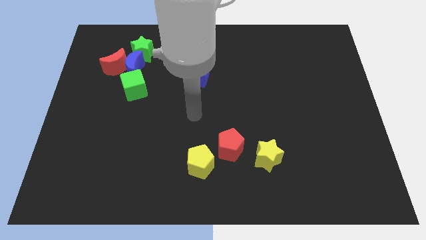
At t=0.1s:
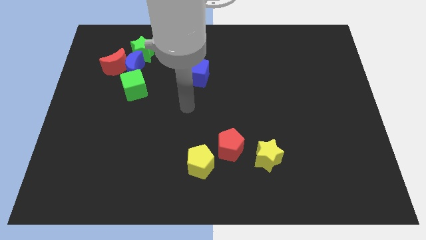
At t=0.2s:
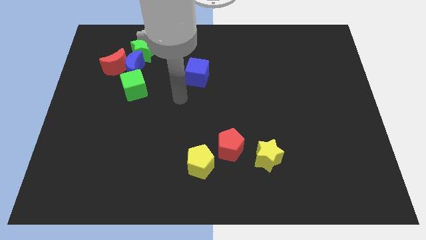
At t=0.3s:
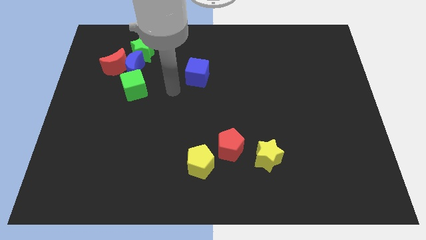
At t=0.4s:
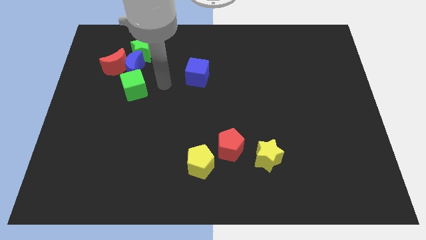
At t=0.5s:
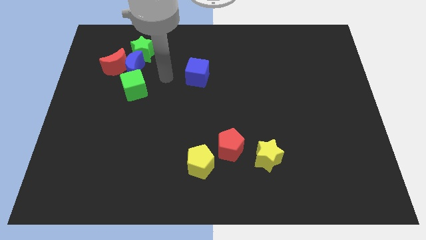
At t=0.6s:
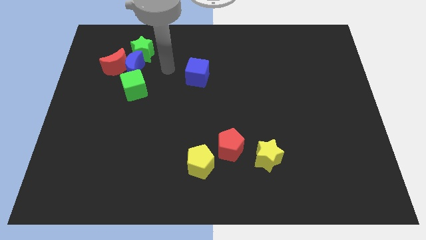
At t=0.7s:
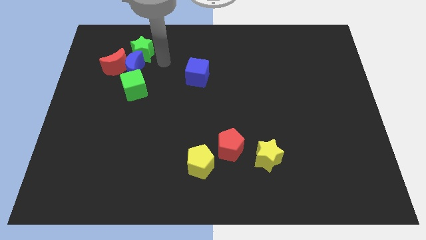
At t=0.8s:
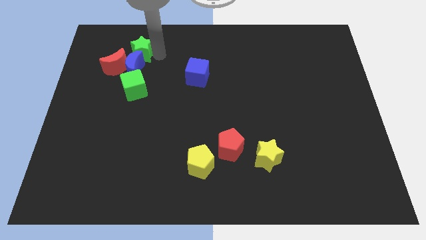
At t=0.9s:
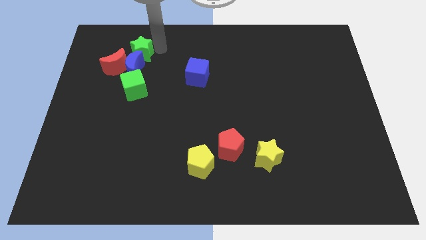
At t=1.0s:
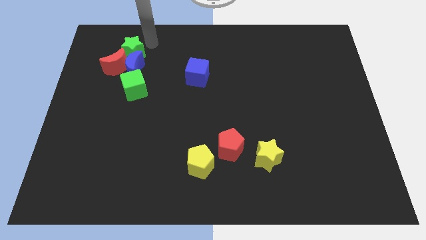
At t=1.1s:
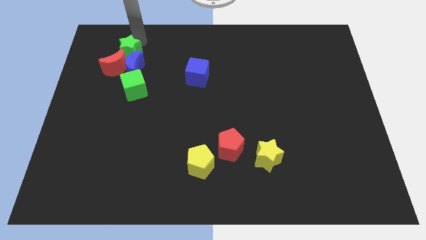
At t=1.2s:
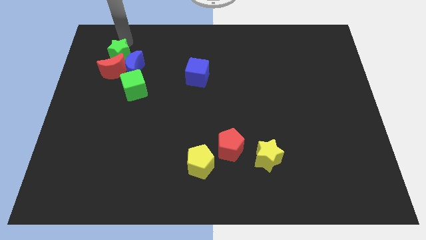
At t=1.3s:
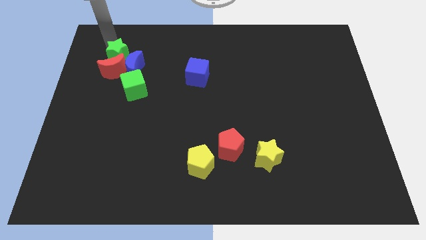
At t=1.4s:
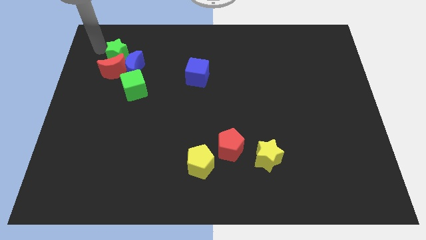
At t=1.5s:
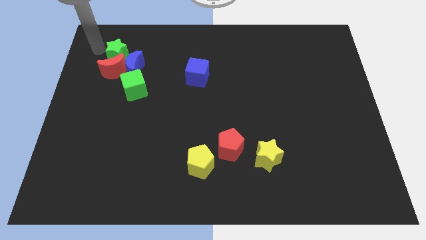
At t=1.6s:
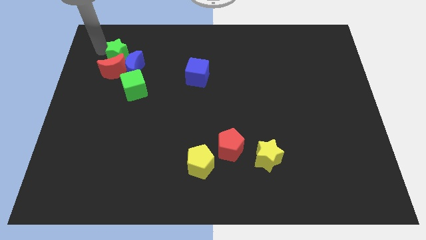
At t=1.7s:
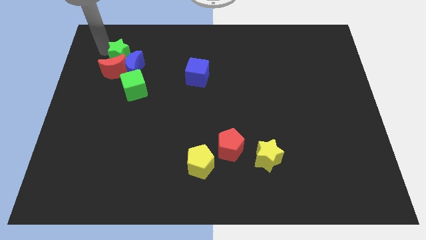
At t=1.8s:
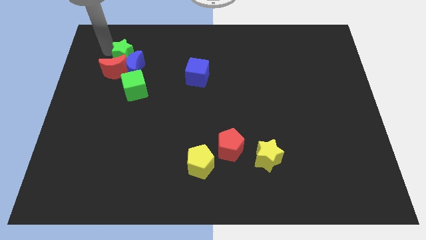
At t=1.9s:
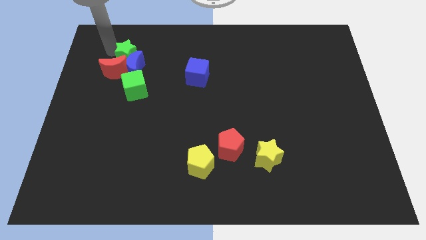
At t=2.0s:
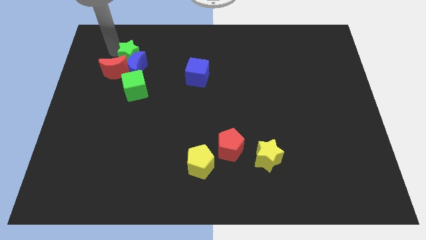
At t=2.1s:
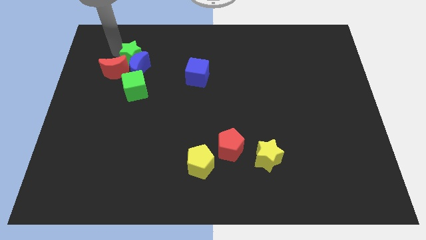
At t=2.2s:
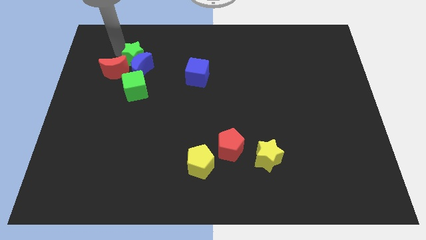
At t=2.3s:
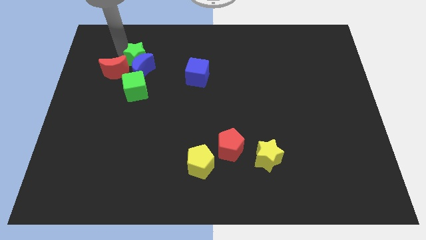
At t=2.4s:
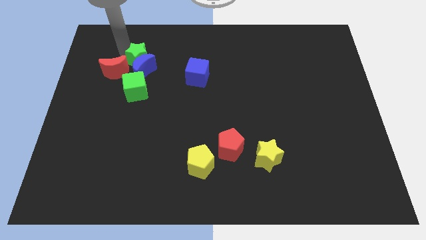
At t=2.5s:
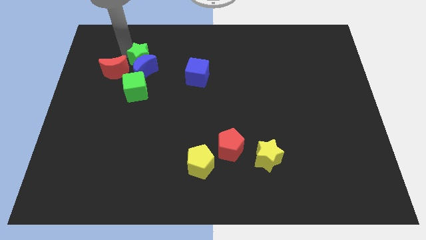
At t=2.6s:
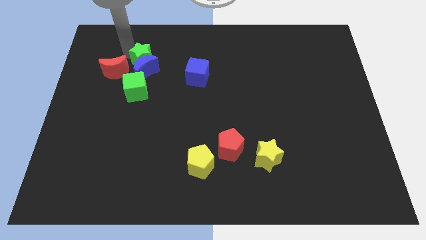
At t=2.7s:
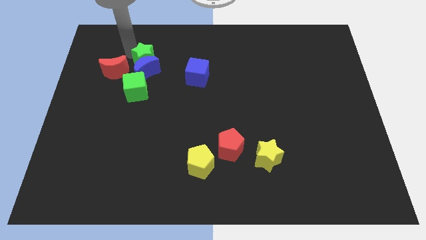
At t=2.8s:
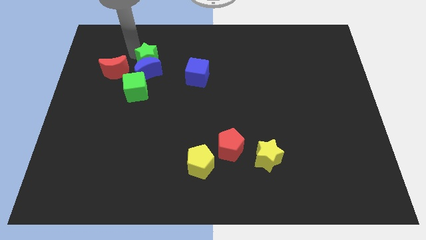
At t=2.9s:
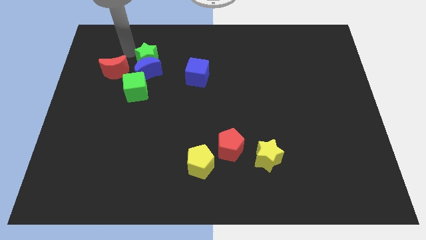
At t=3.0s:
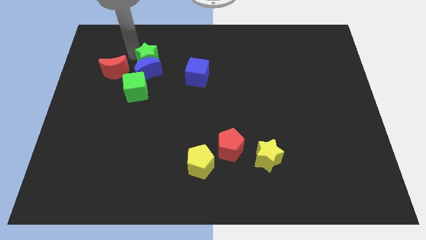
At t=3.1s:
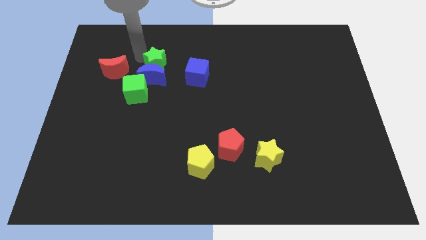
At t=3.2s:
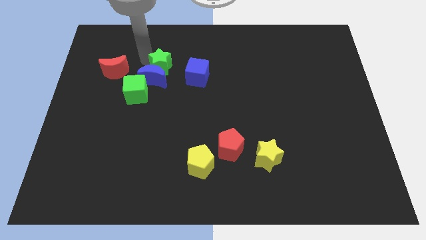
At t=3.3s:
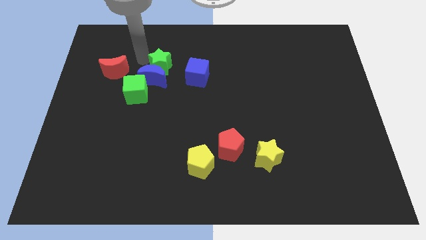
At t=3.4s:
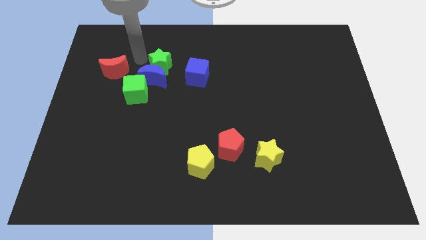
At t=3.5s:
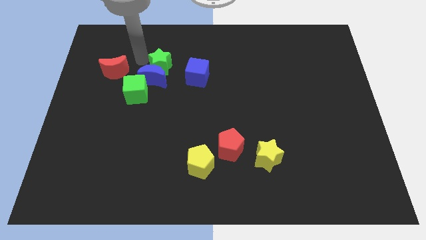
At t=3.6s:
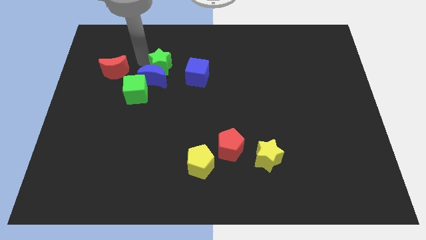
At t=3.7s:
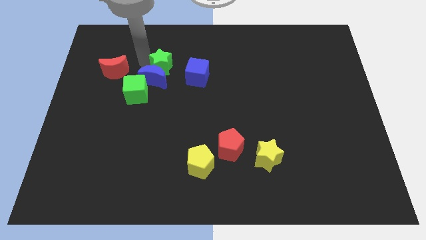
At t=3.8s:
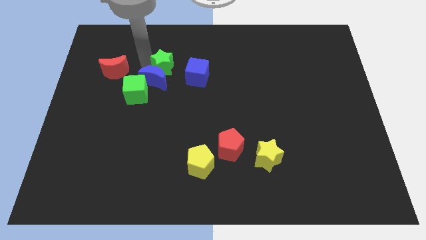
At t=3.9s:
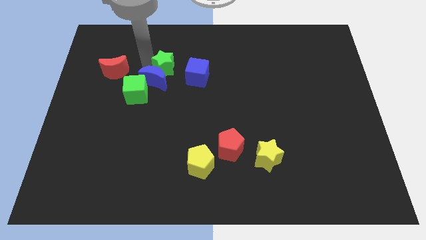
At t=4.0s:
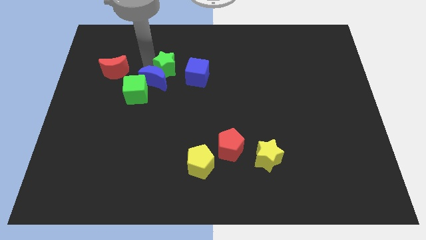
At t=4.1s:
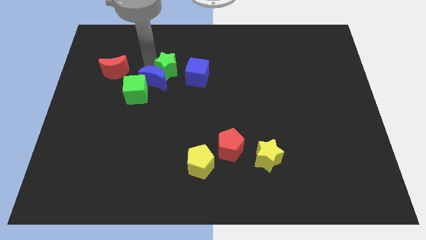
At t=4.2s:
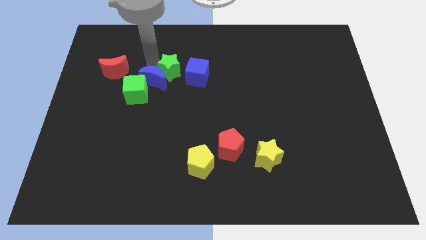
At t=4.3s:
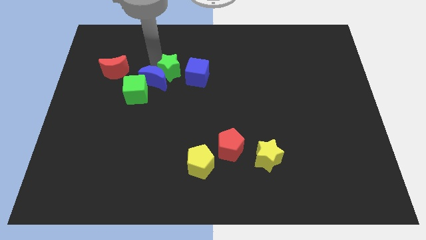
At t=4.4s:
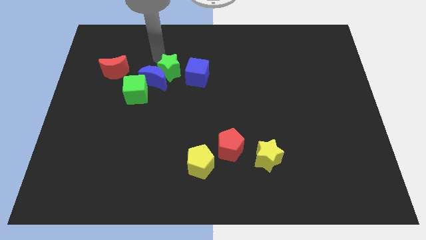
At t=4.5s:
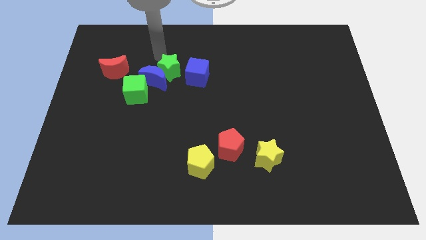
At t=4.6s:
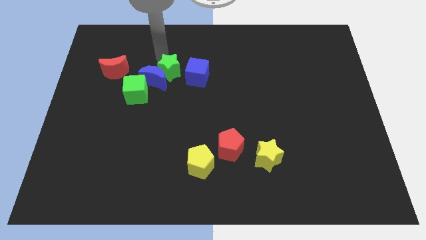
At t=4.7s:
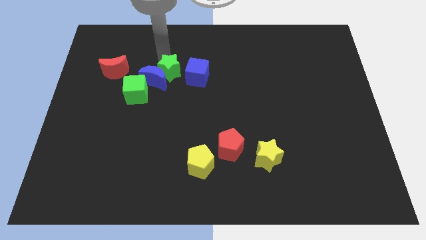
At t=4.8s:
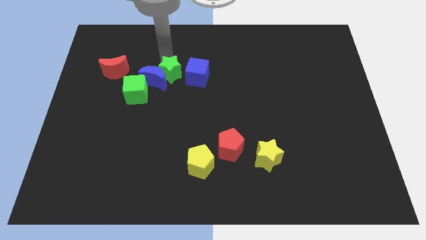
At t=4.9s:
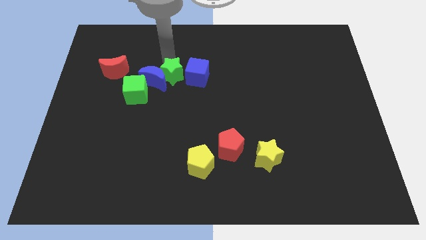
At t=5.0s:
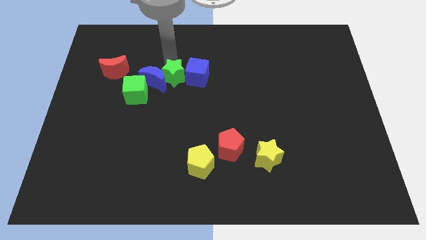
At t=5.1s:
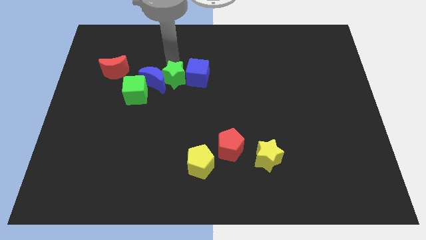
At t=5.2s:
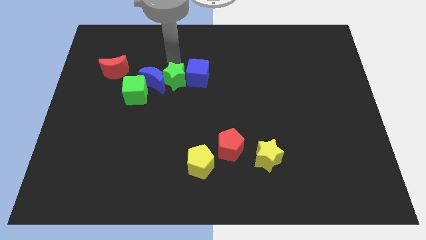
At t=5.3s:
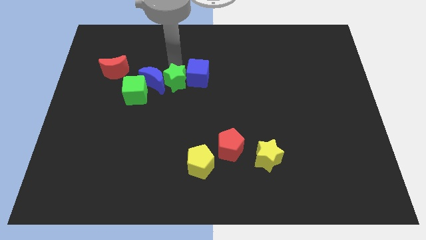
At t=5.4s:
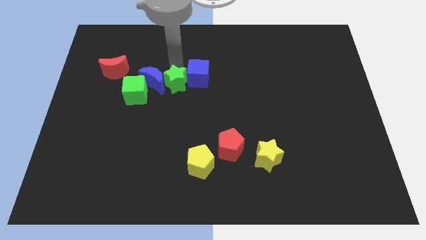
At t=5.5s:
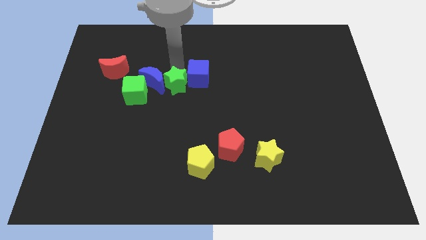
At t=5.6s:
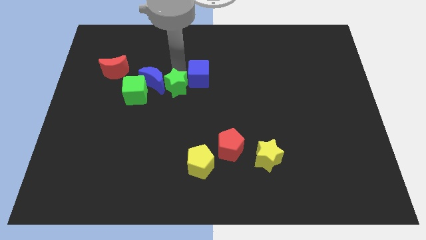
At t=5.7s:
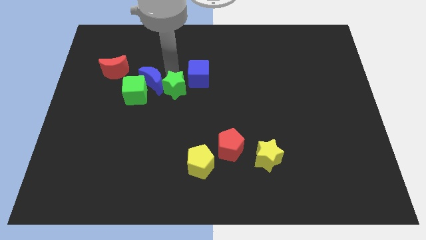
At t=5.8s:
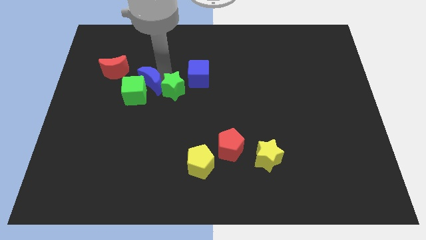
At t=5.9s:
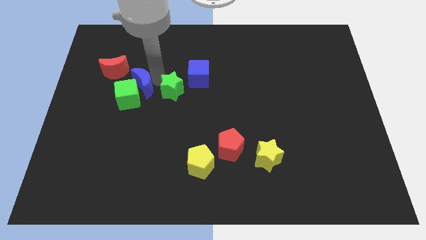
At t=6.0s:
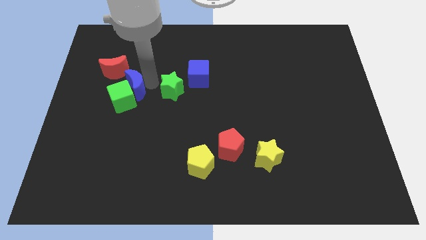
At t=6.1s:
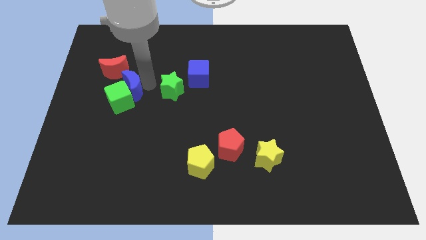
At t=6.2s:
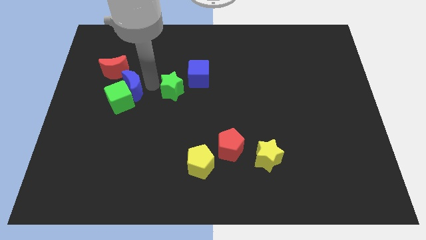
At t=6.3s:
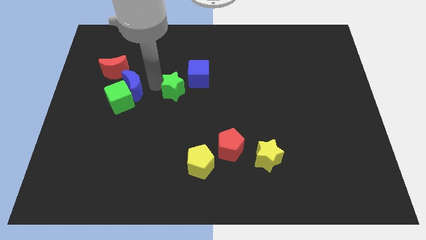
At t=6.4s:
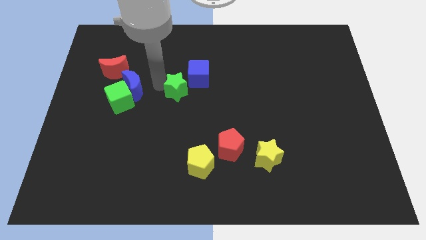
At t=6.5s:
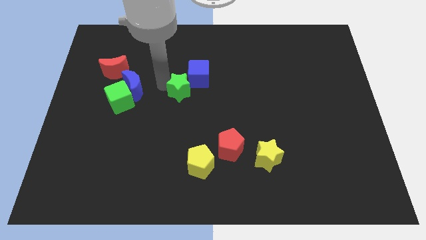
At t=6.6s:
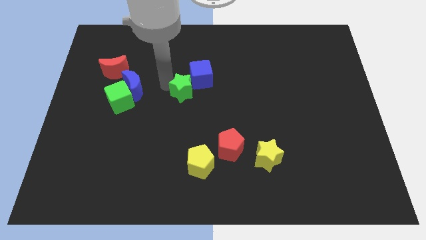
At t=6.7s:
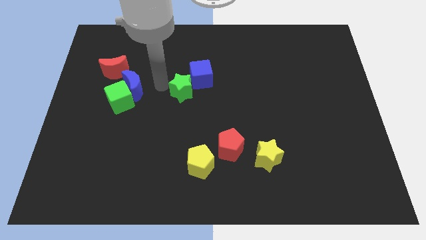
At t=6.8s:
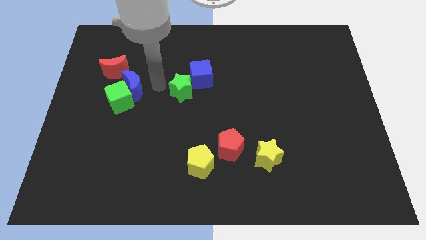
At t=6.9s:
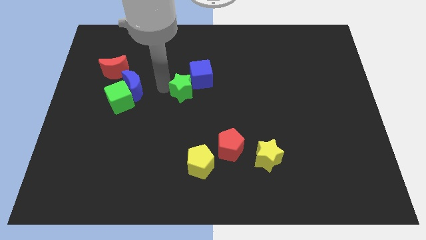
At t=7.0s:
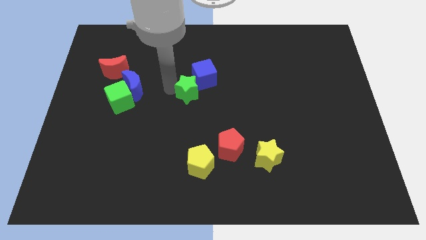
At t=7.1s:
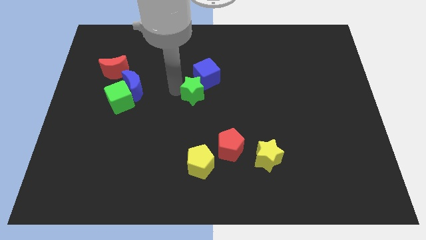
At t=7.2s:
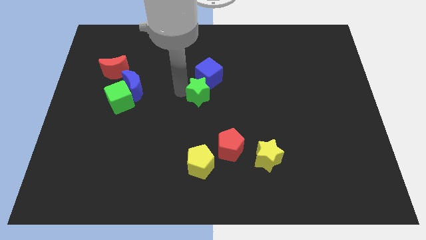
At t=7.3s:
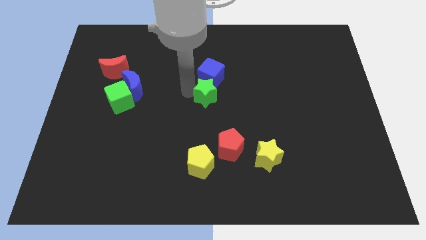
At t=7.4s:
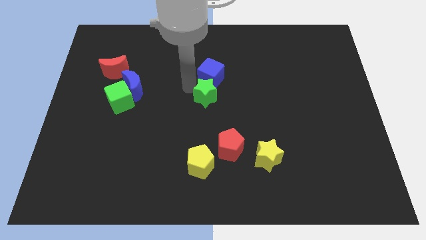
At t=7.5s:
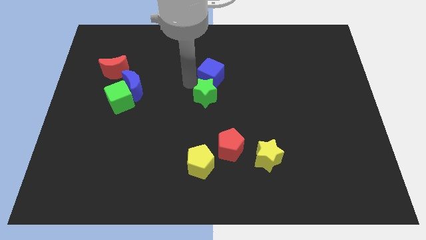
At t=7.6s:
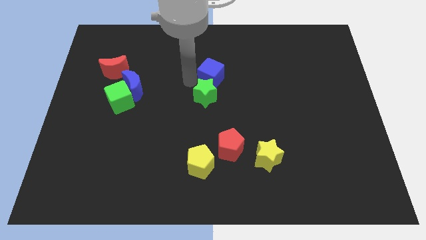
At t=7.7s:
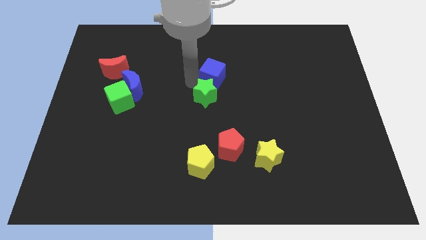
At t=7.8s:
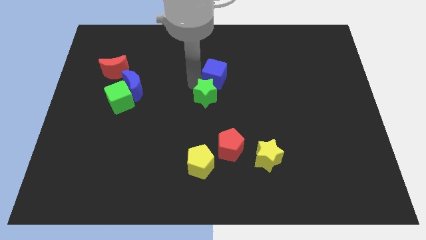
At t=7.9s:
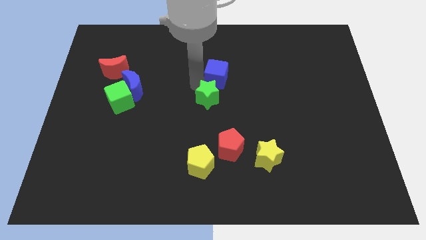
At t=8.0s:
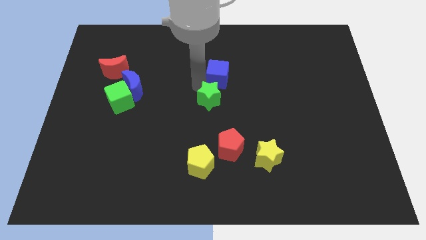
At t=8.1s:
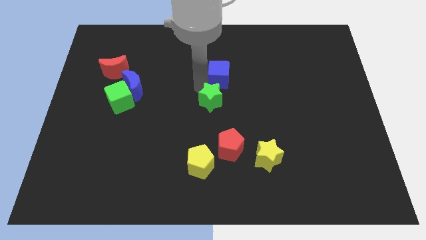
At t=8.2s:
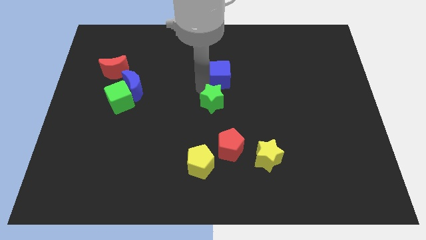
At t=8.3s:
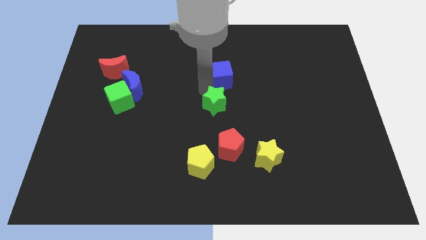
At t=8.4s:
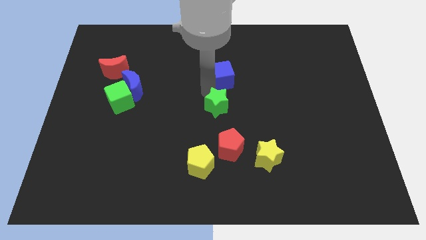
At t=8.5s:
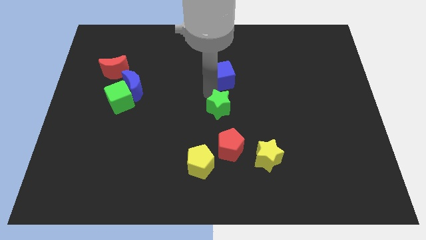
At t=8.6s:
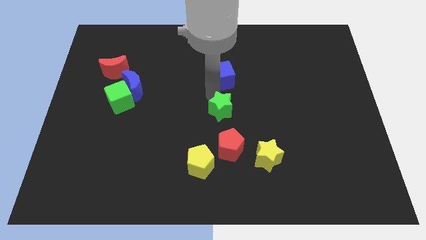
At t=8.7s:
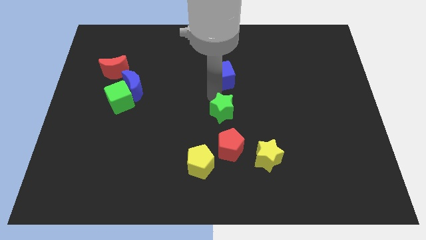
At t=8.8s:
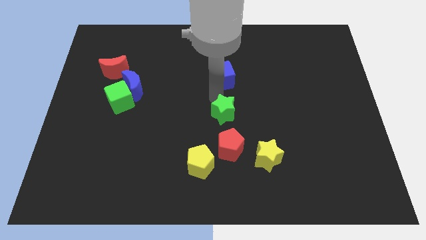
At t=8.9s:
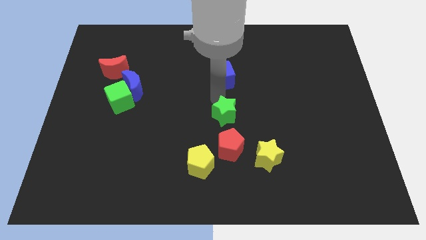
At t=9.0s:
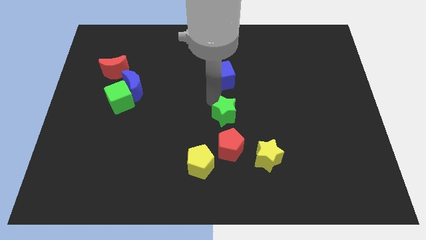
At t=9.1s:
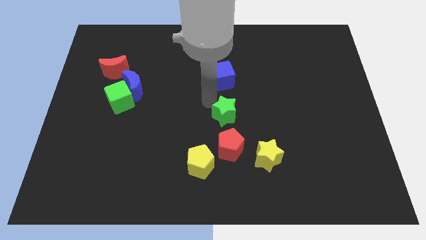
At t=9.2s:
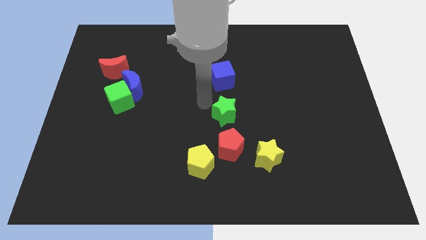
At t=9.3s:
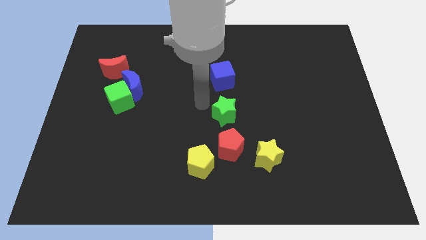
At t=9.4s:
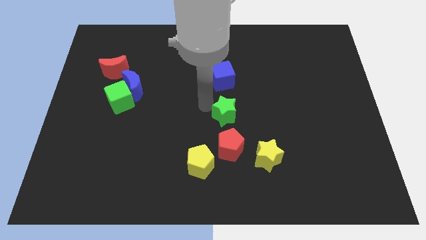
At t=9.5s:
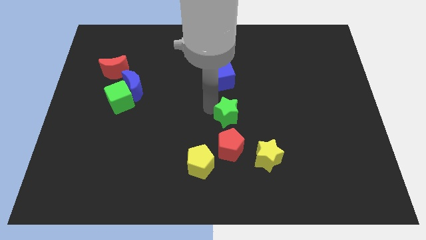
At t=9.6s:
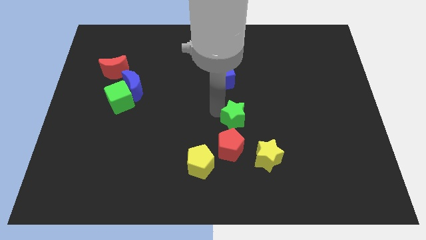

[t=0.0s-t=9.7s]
slide the green star to the top right of the red pentagon
